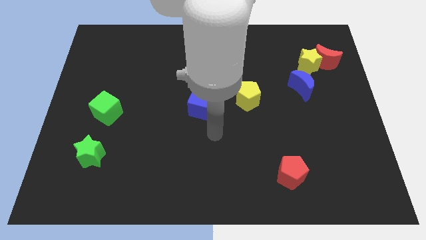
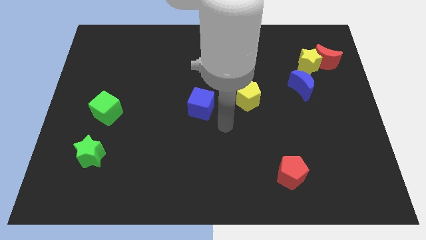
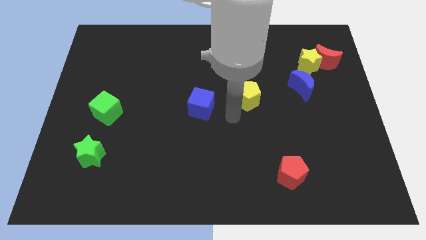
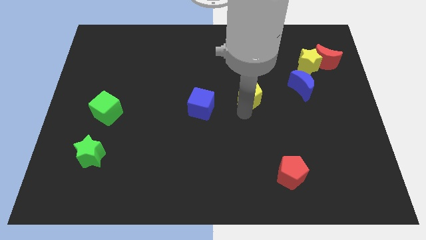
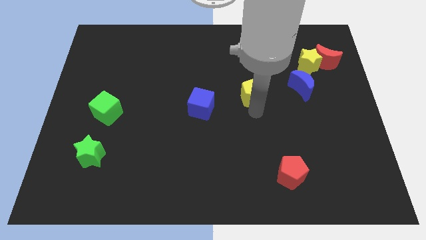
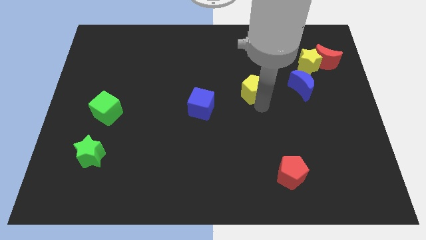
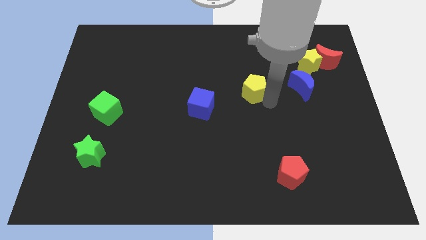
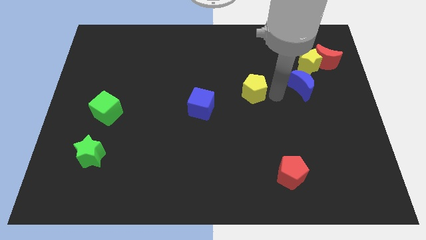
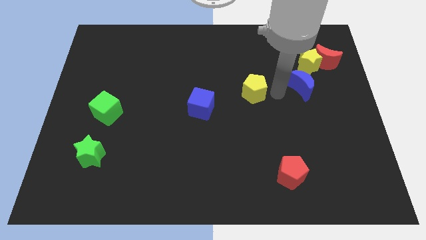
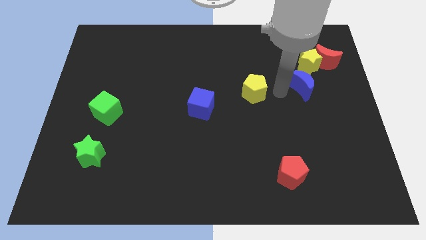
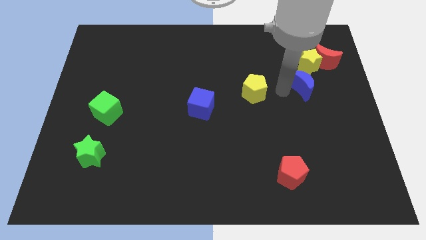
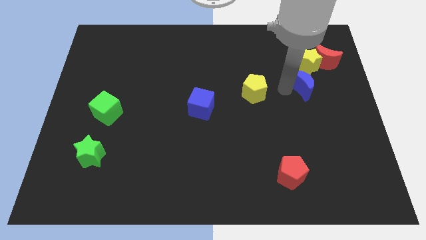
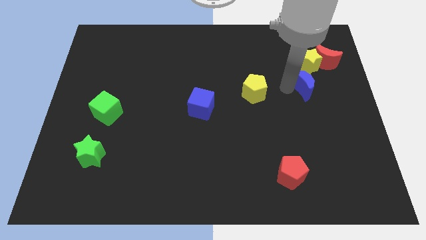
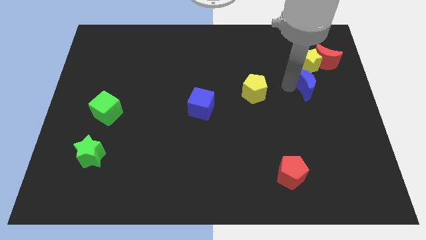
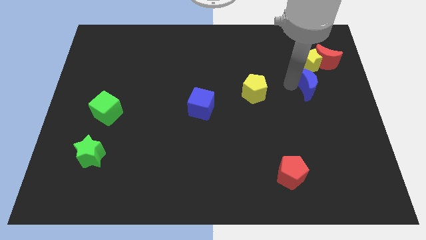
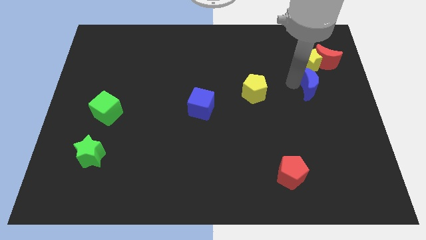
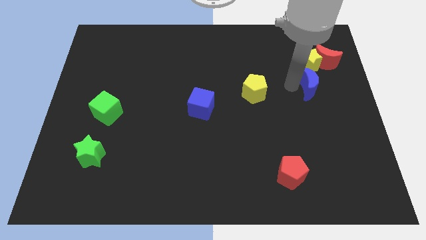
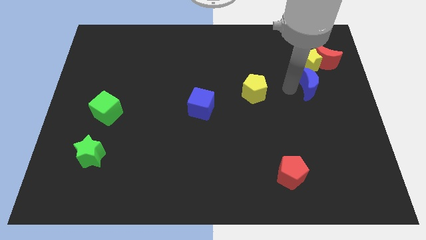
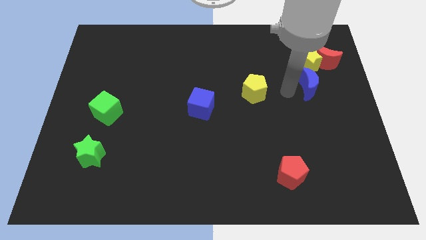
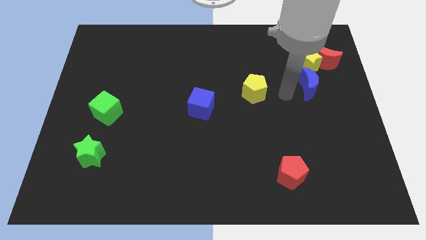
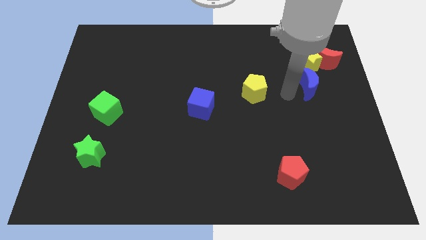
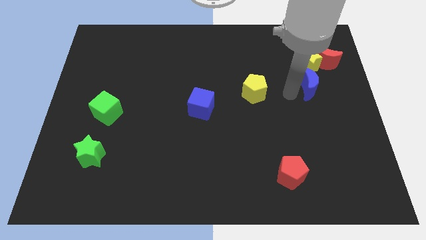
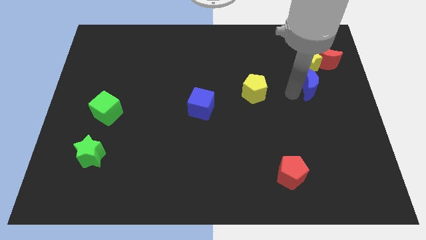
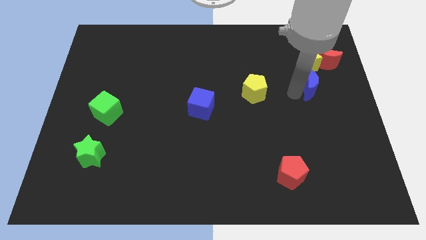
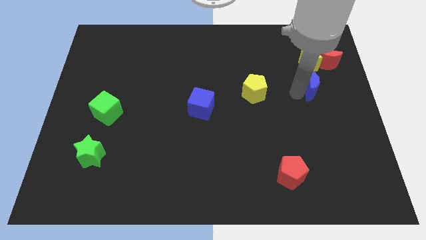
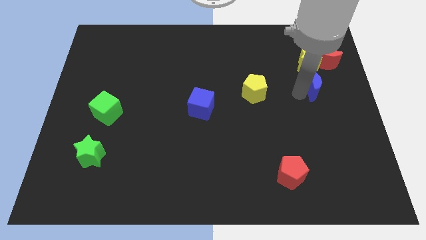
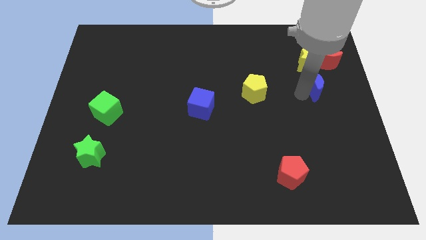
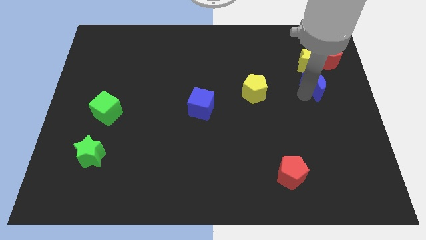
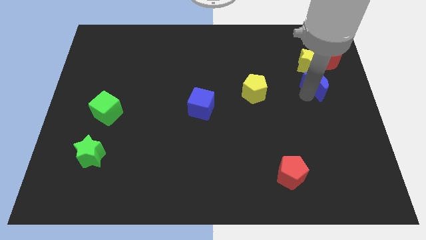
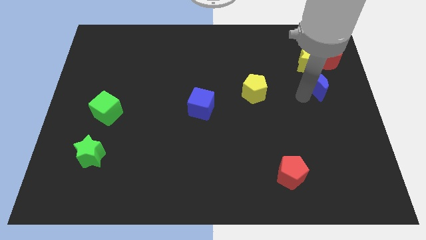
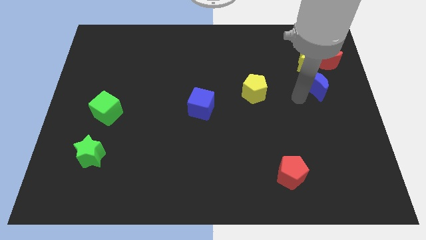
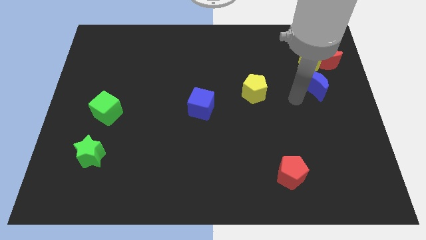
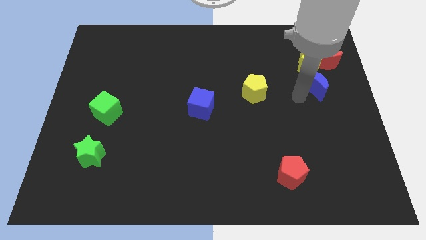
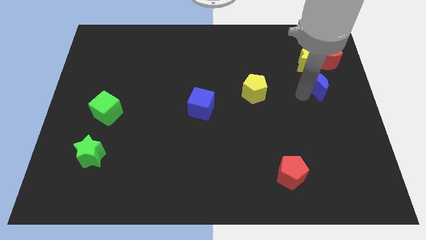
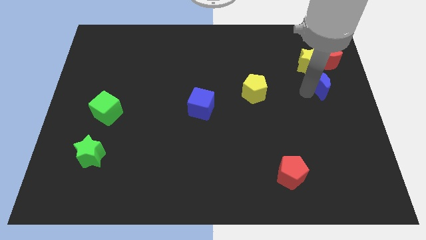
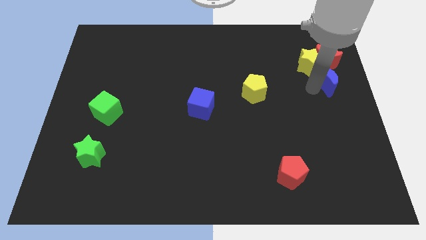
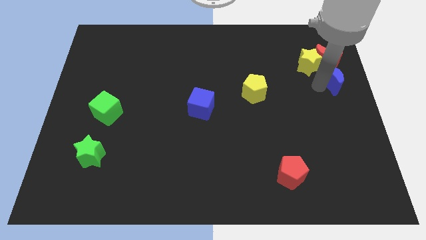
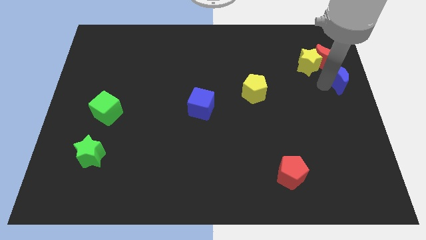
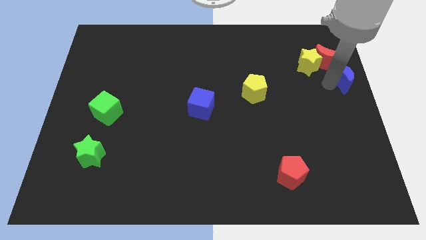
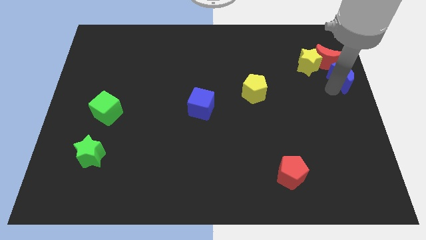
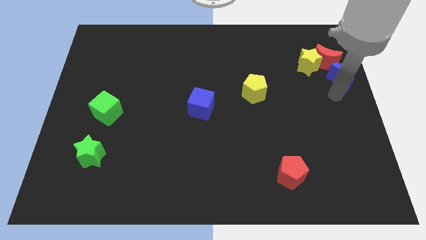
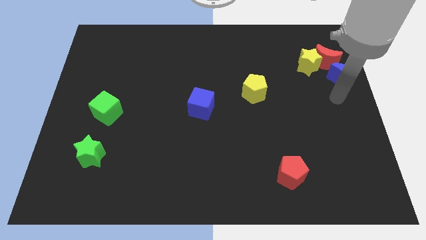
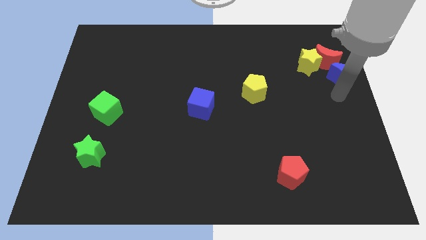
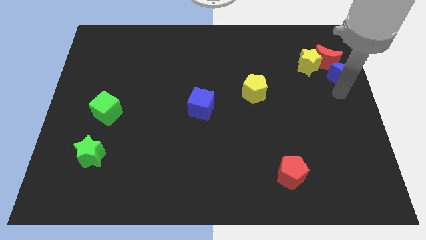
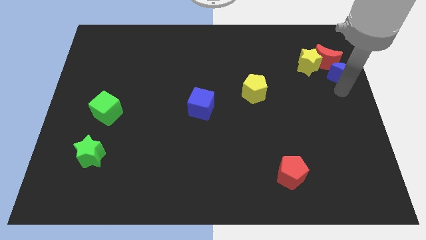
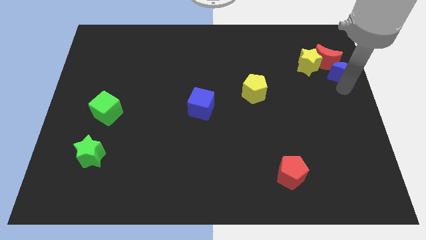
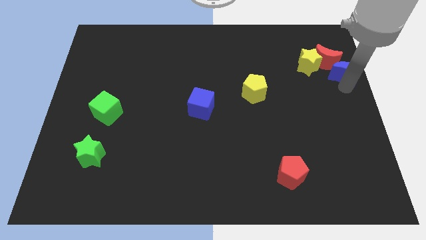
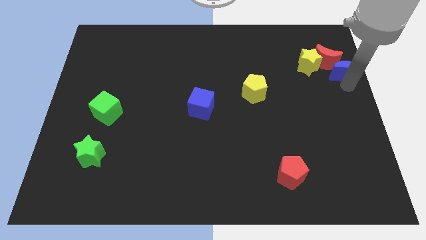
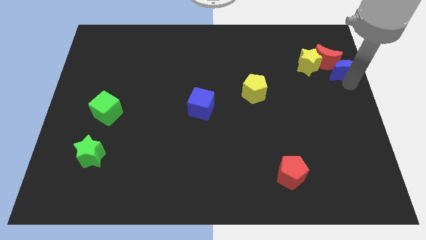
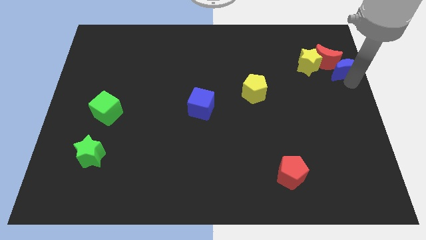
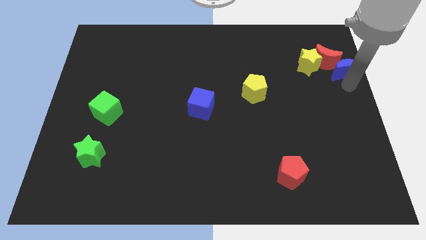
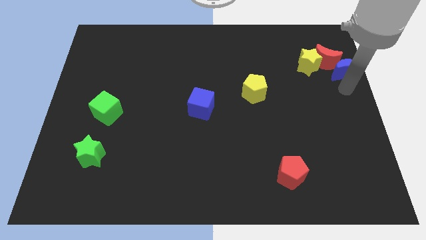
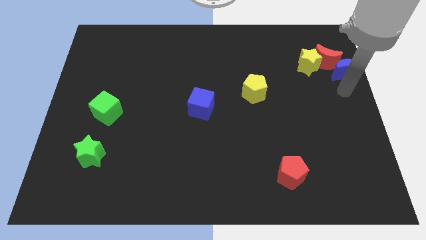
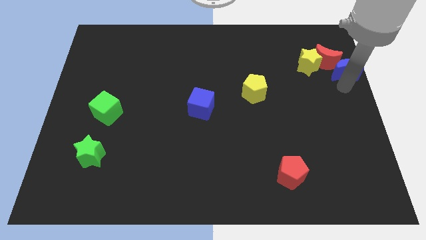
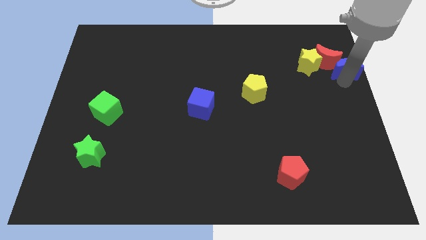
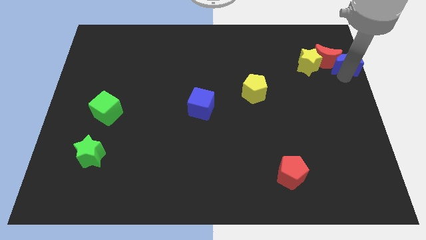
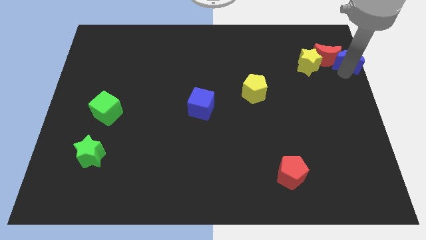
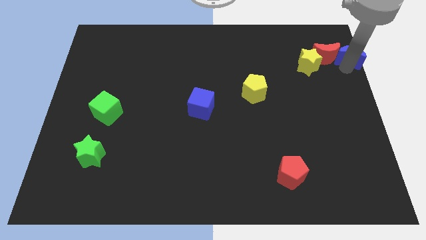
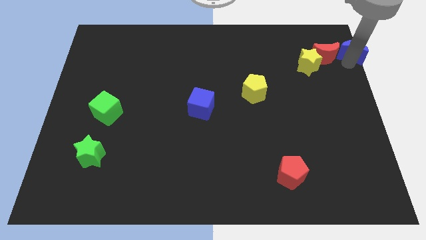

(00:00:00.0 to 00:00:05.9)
push the blue moon to the top right corner

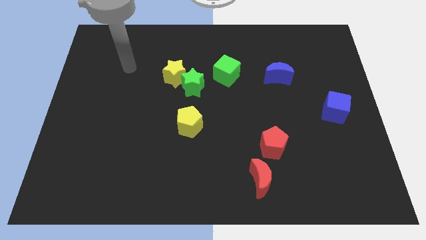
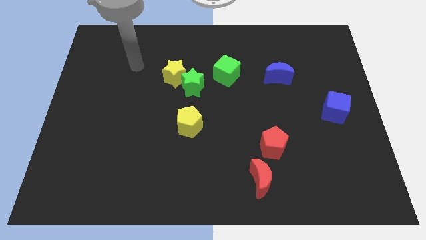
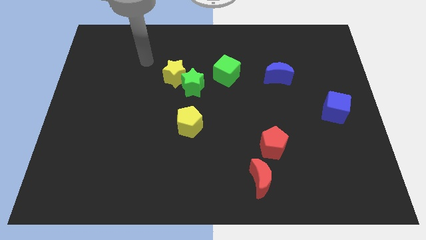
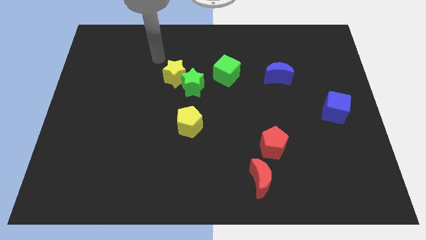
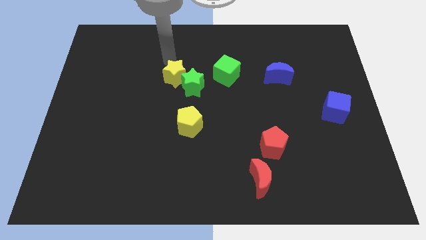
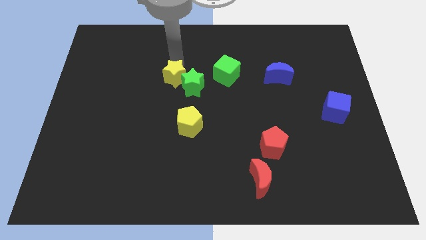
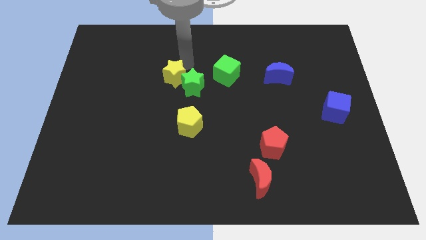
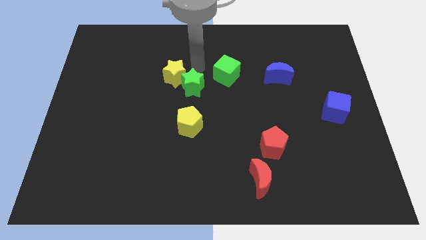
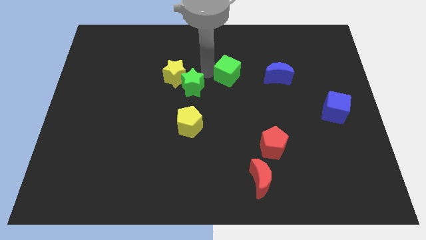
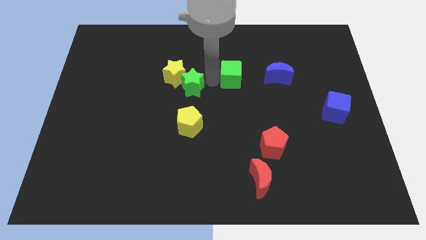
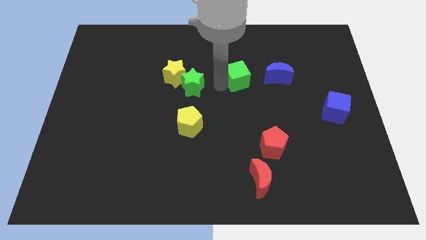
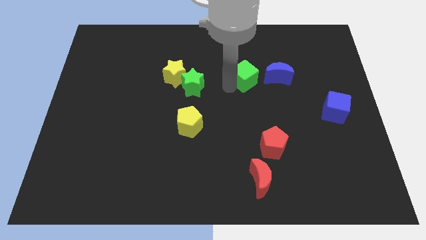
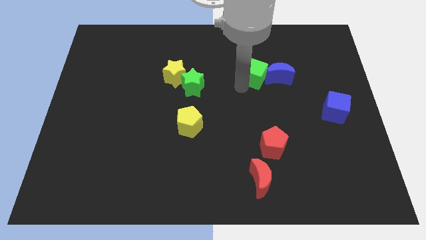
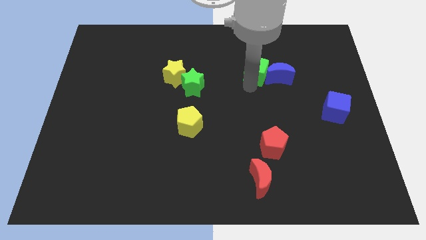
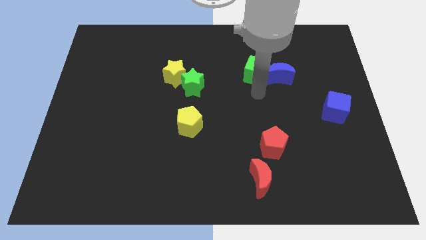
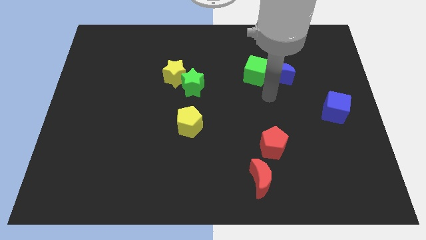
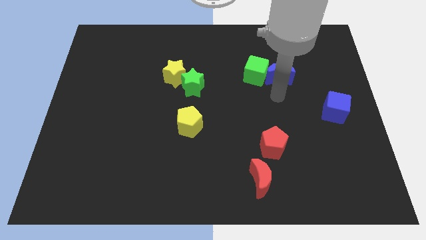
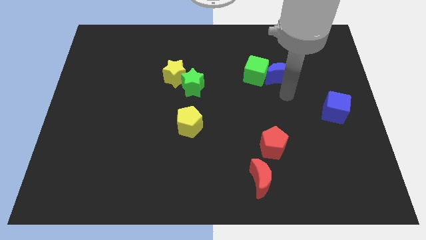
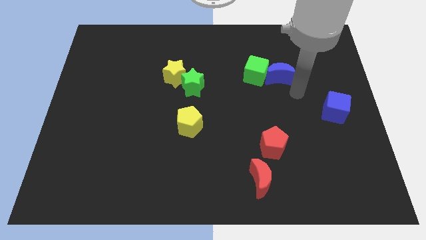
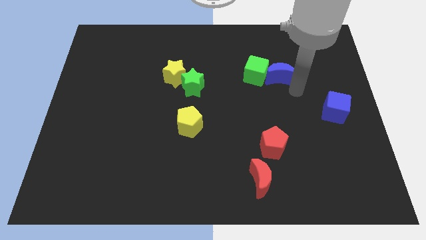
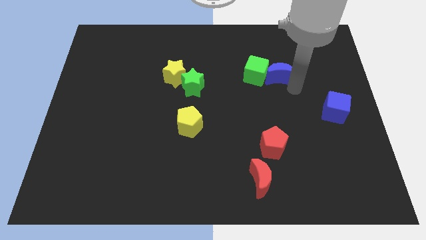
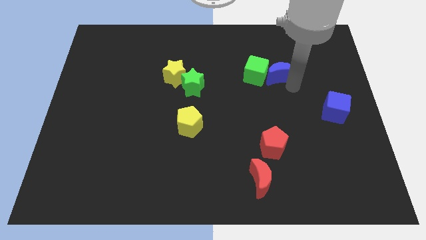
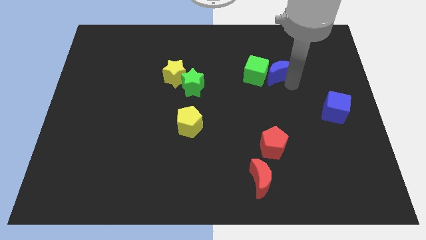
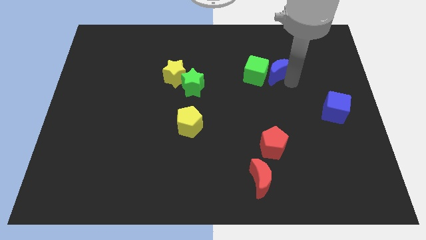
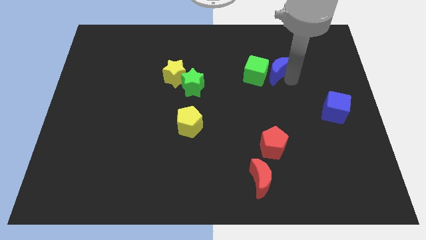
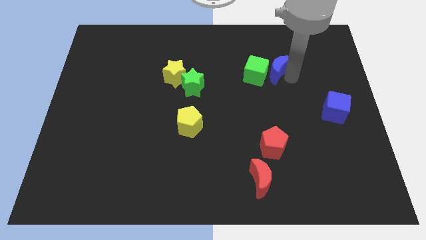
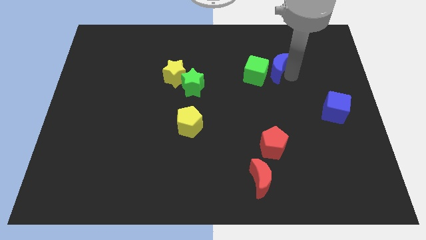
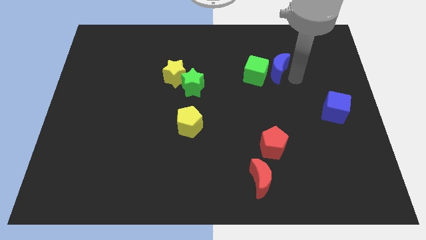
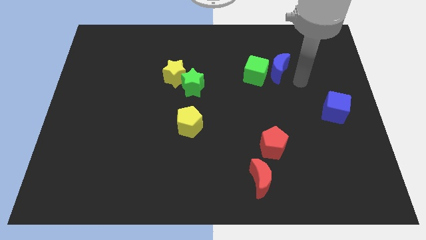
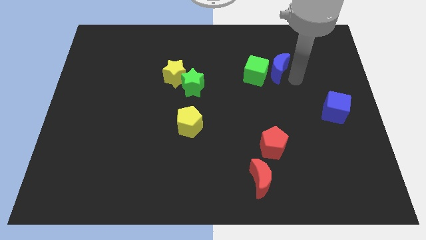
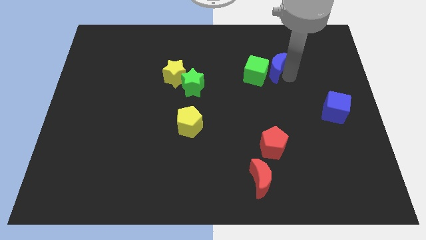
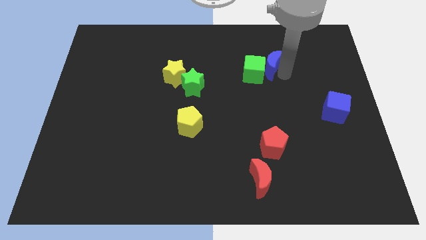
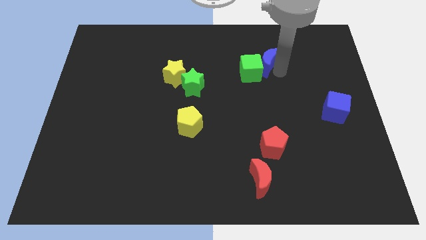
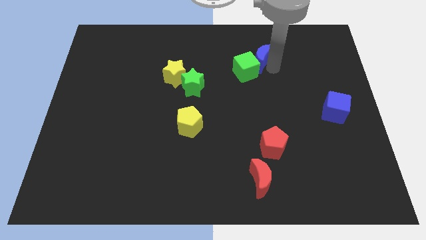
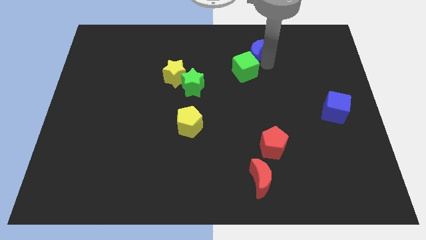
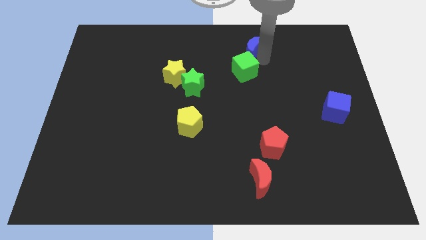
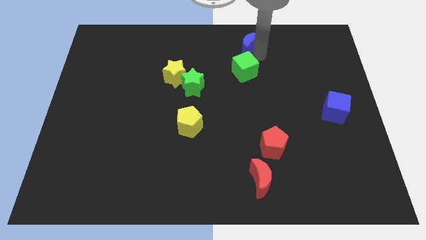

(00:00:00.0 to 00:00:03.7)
move the blue moon to the top side
